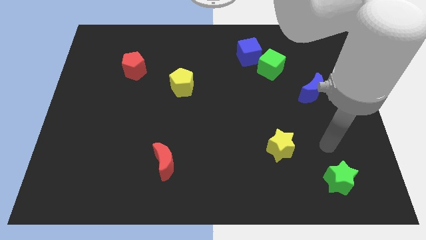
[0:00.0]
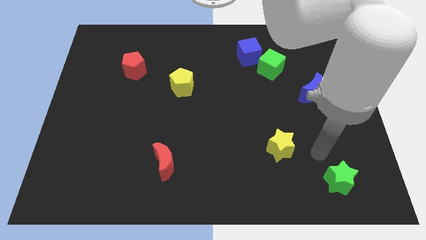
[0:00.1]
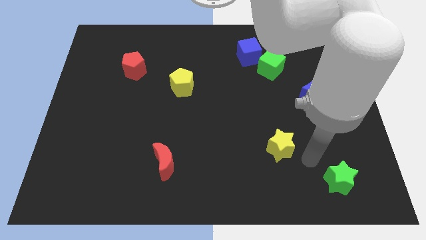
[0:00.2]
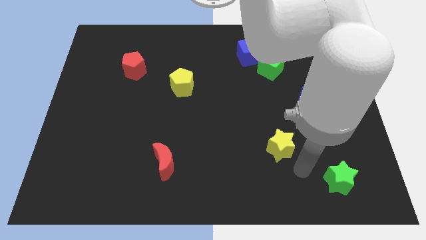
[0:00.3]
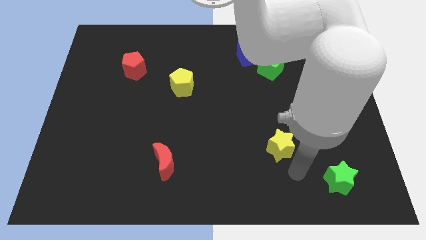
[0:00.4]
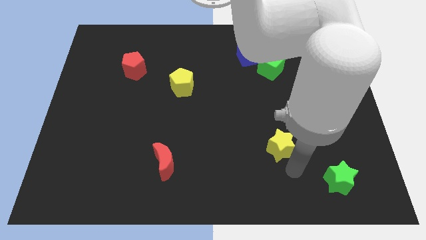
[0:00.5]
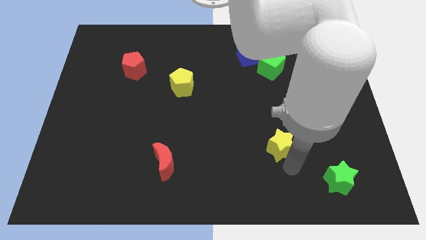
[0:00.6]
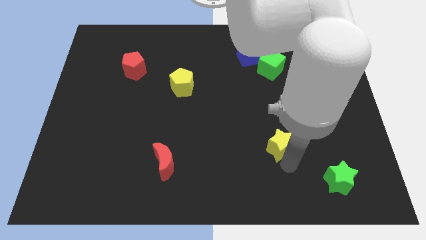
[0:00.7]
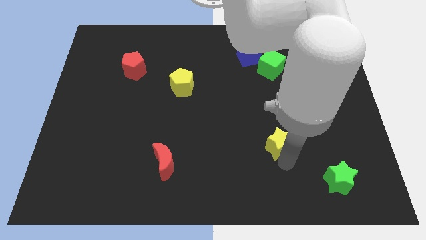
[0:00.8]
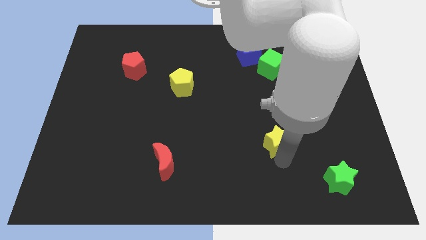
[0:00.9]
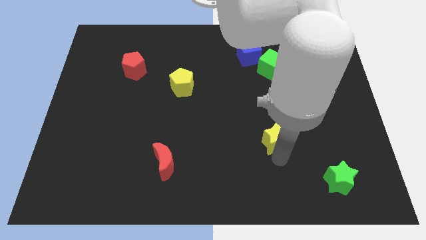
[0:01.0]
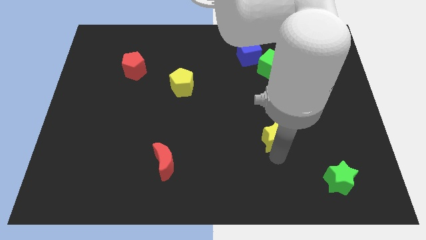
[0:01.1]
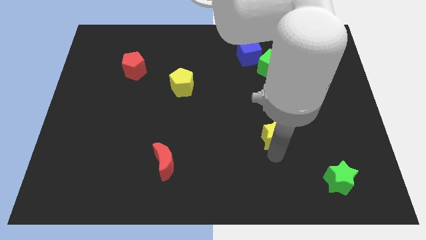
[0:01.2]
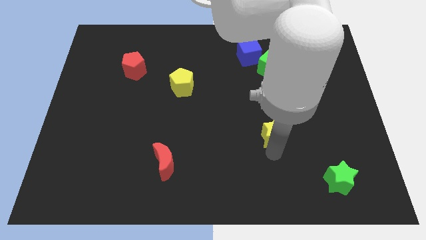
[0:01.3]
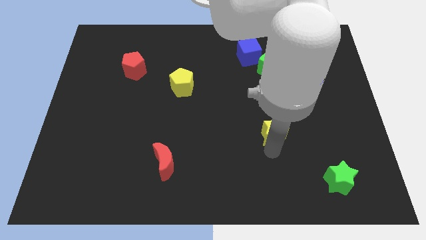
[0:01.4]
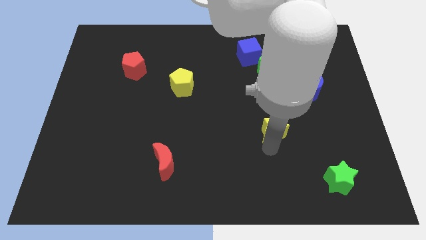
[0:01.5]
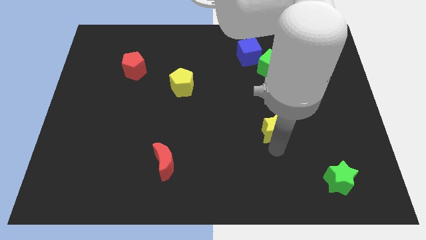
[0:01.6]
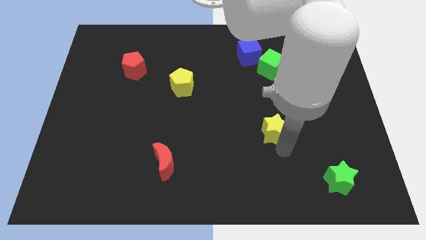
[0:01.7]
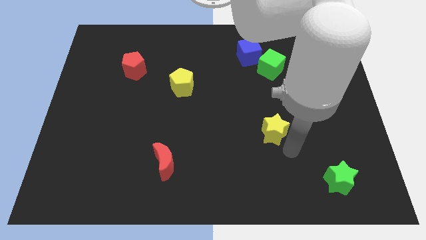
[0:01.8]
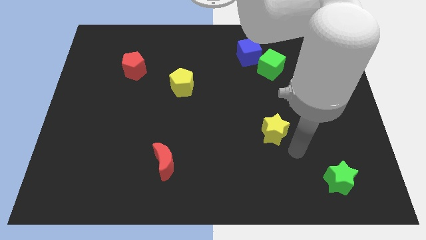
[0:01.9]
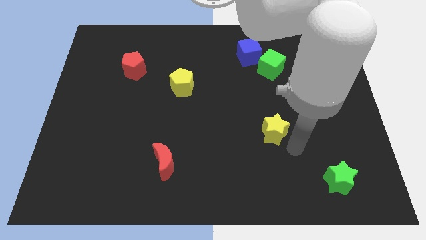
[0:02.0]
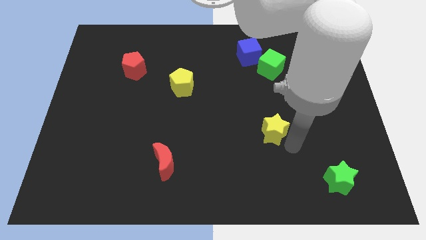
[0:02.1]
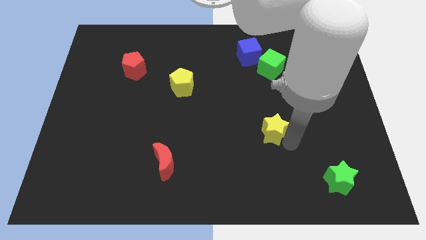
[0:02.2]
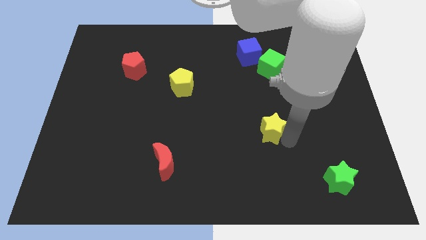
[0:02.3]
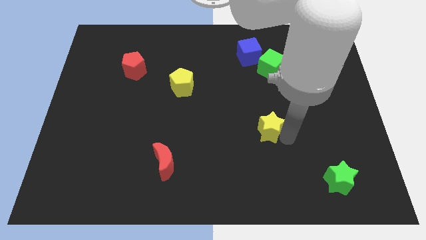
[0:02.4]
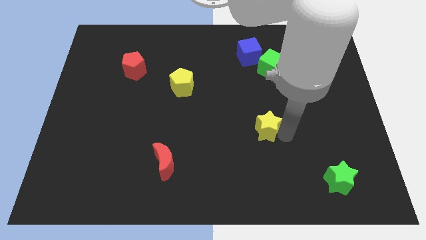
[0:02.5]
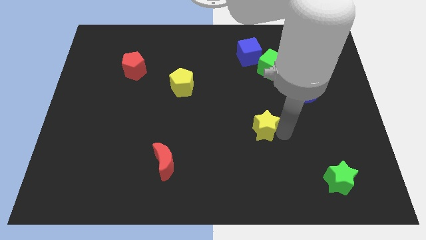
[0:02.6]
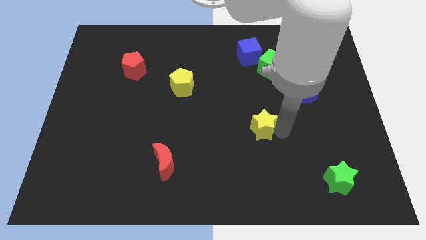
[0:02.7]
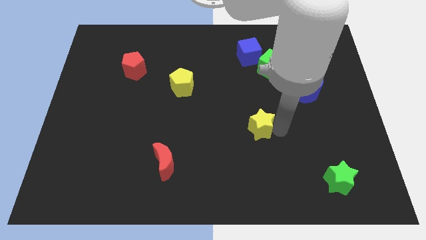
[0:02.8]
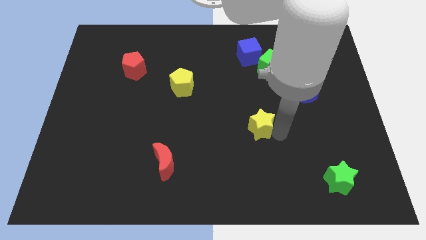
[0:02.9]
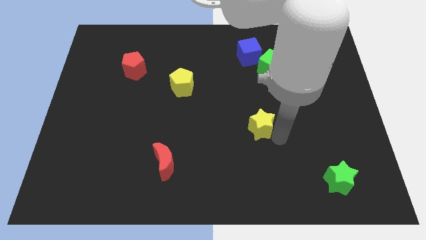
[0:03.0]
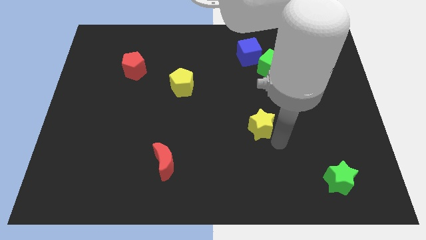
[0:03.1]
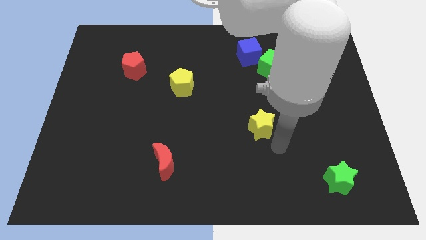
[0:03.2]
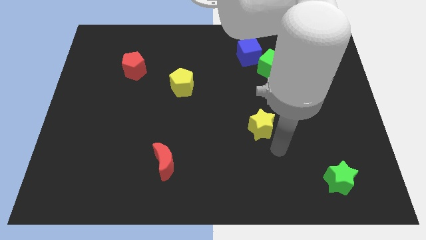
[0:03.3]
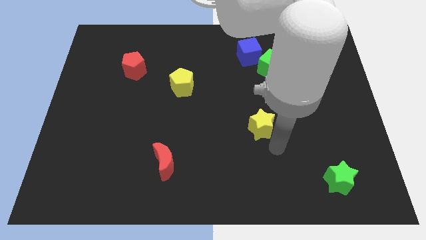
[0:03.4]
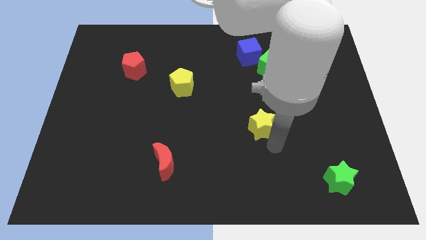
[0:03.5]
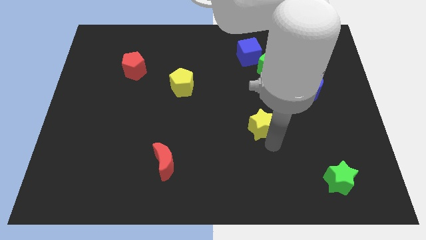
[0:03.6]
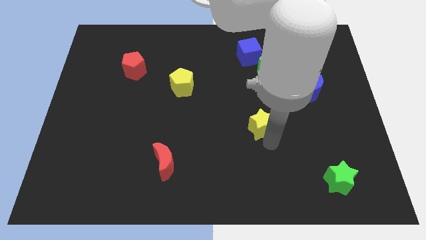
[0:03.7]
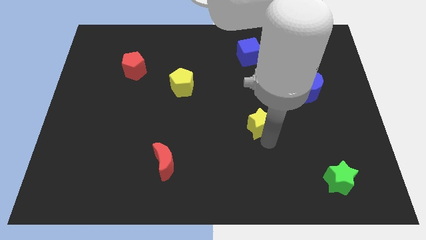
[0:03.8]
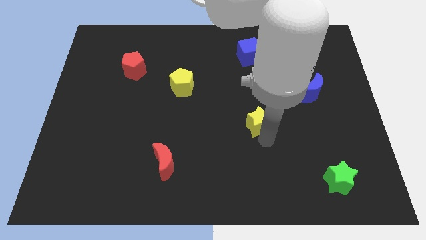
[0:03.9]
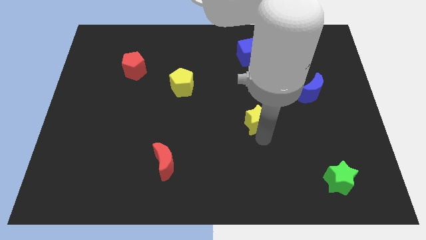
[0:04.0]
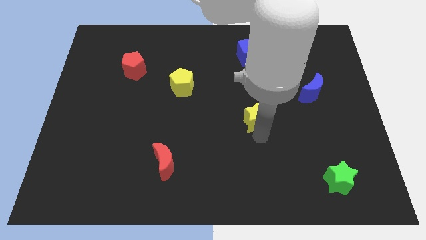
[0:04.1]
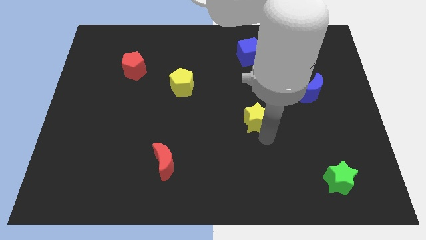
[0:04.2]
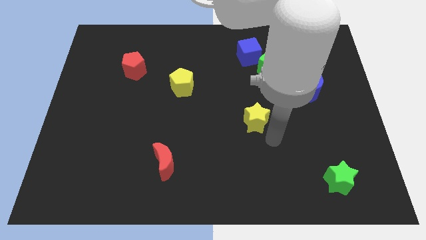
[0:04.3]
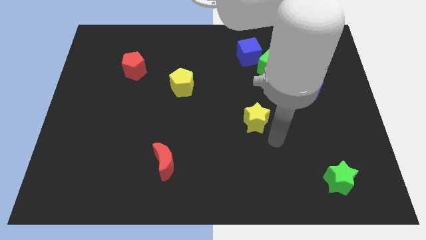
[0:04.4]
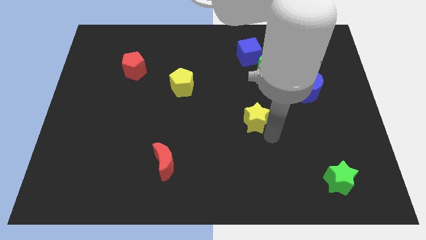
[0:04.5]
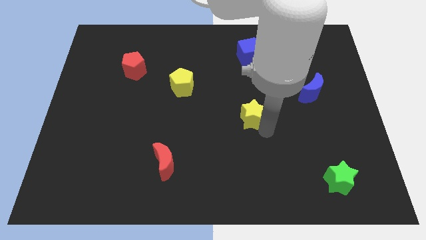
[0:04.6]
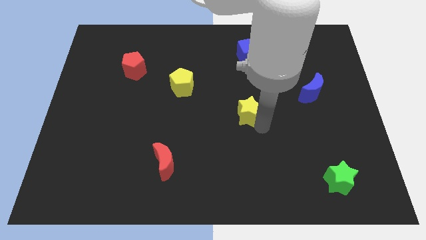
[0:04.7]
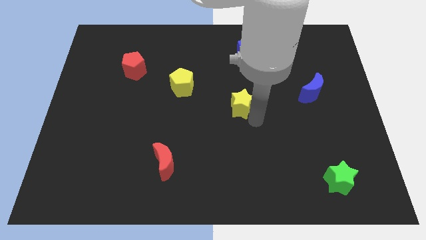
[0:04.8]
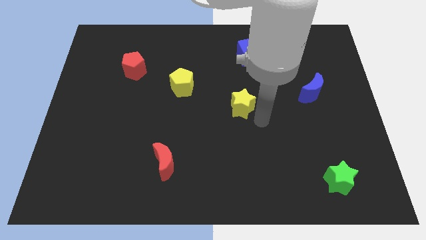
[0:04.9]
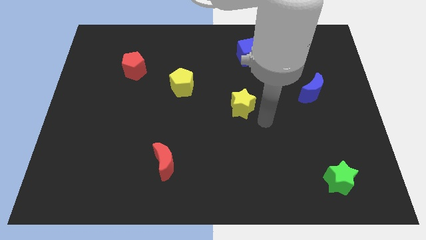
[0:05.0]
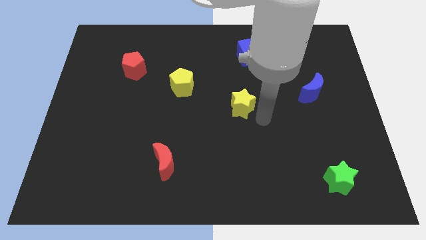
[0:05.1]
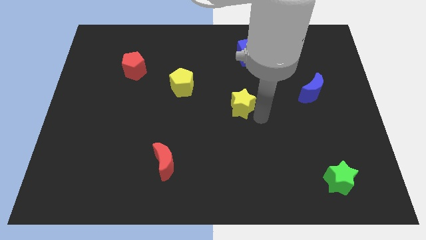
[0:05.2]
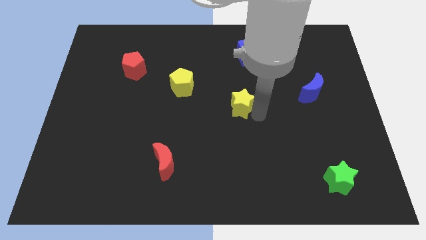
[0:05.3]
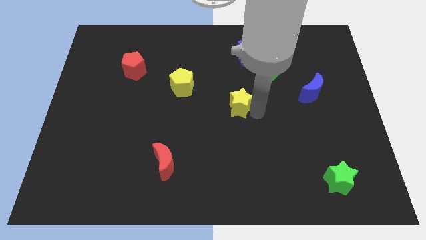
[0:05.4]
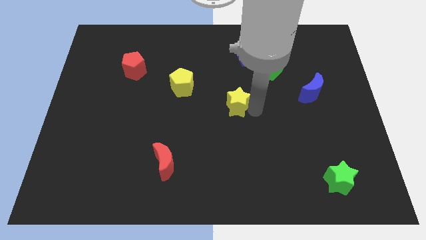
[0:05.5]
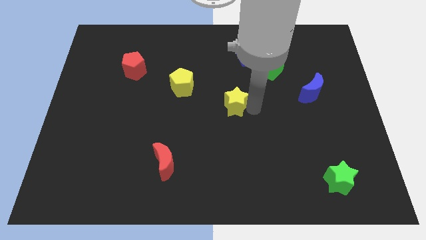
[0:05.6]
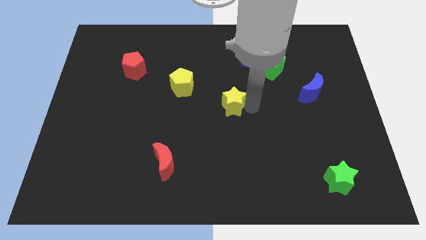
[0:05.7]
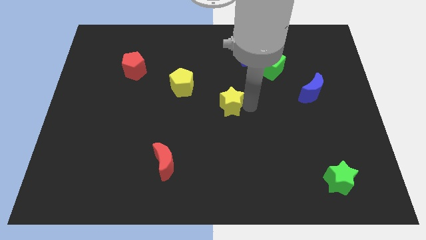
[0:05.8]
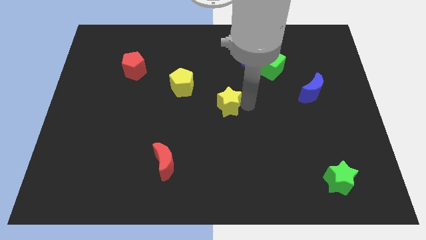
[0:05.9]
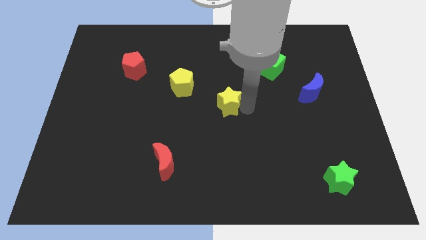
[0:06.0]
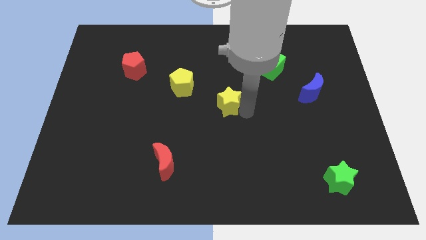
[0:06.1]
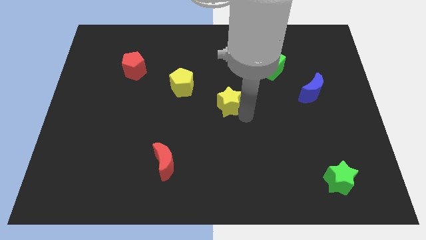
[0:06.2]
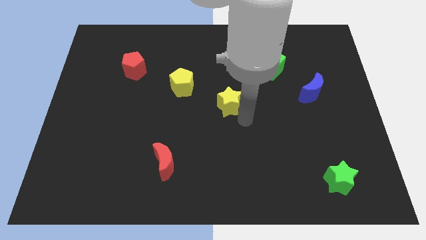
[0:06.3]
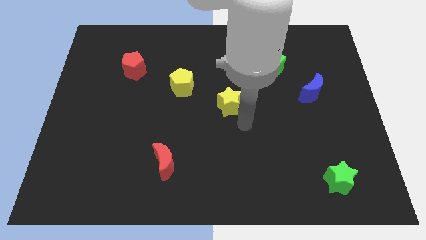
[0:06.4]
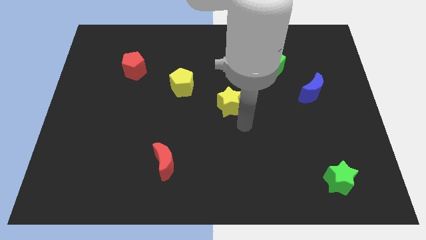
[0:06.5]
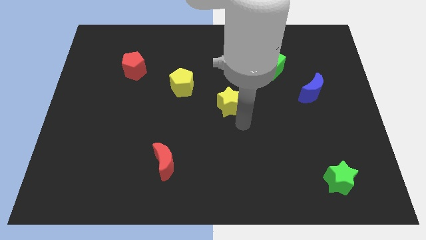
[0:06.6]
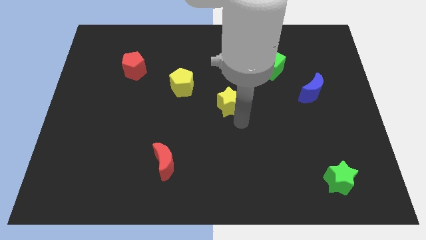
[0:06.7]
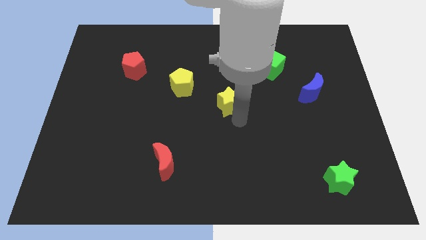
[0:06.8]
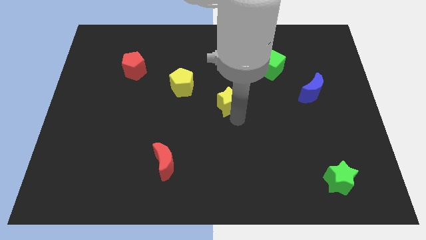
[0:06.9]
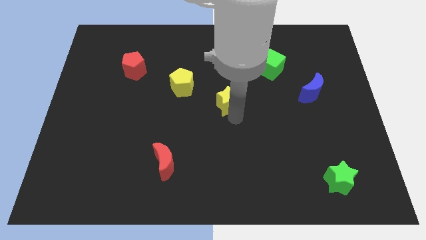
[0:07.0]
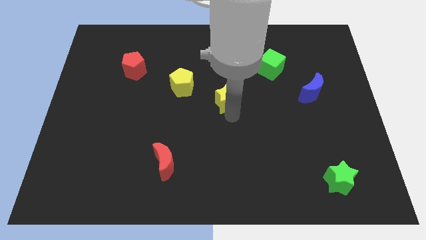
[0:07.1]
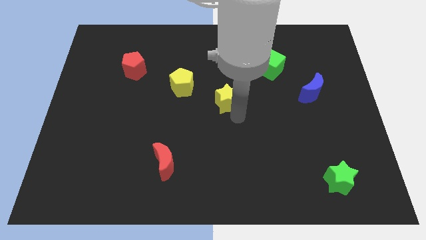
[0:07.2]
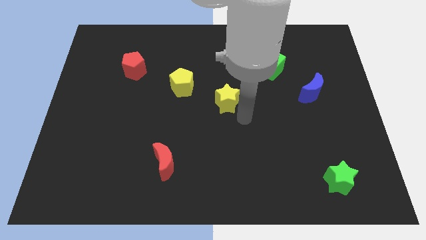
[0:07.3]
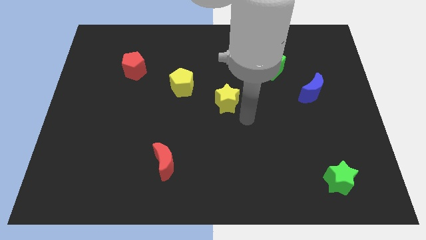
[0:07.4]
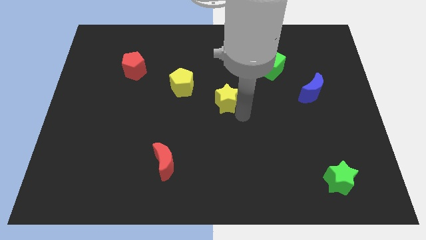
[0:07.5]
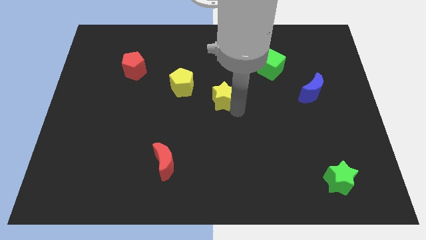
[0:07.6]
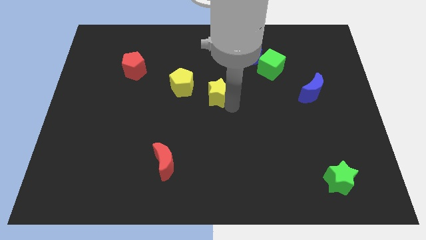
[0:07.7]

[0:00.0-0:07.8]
slide the yellow star upwards and left diagonally

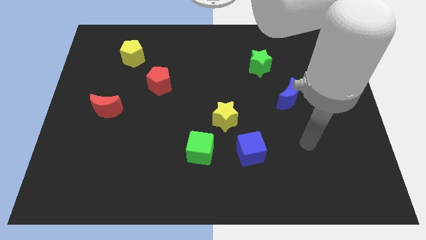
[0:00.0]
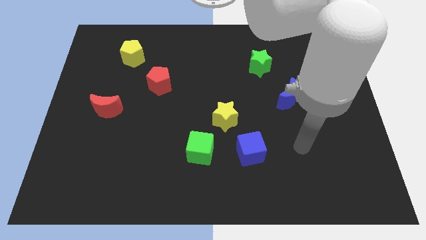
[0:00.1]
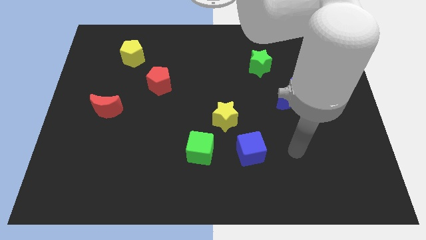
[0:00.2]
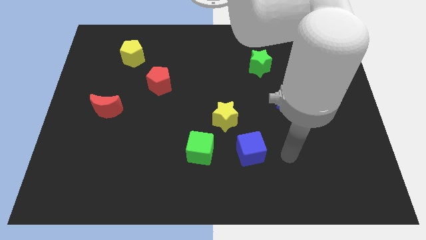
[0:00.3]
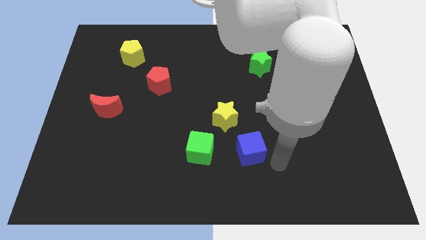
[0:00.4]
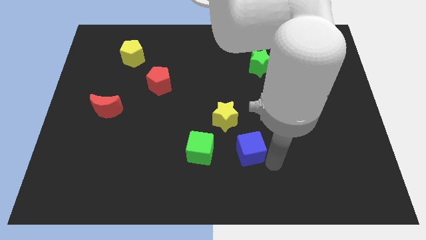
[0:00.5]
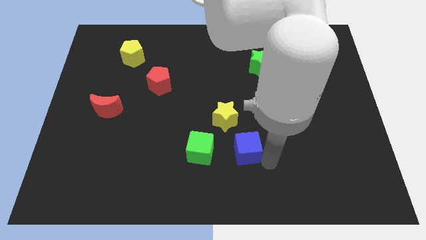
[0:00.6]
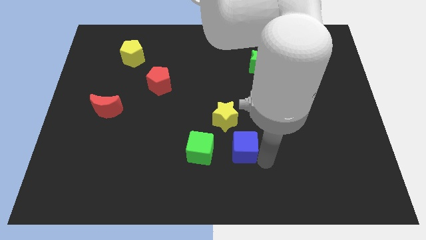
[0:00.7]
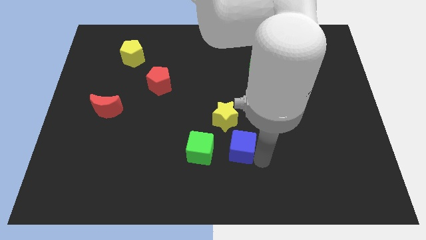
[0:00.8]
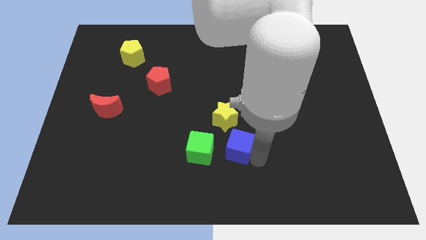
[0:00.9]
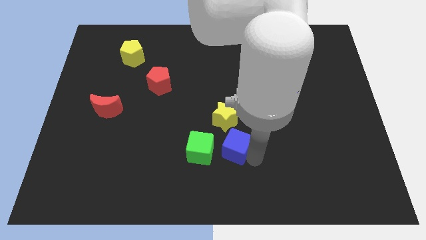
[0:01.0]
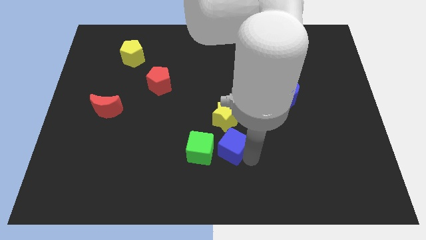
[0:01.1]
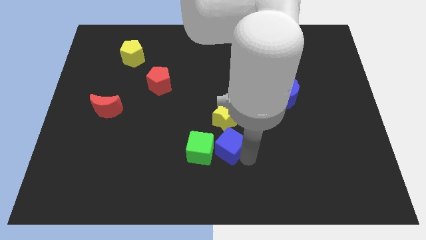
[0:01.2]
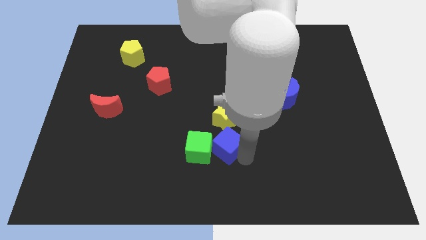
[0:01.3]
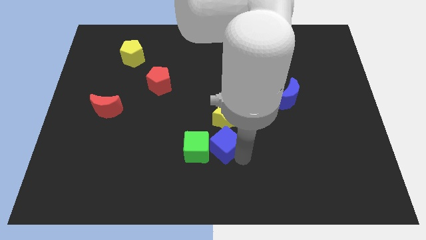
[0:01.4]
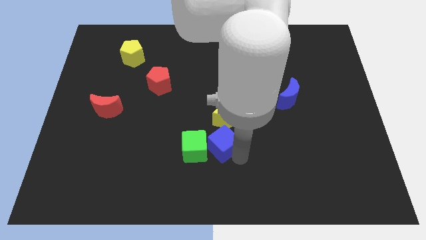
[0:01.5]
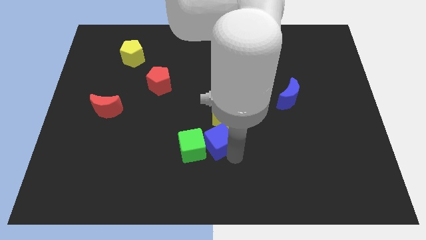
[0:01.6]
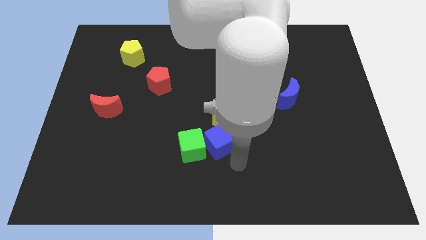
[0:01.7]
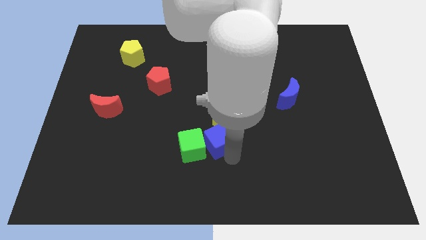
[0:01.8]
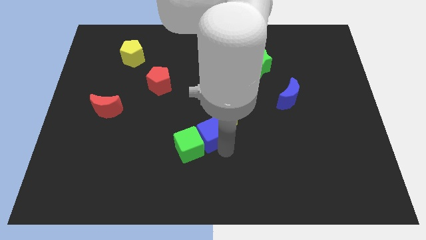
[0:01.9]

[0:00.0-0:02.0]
slightly move the blue cube up and to the left diagonally
